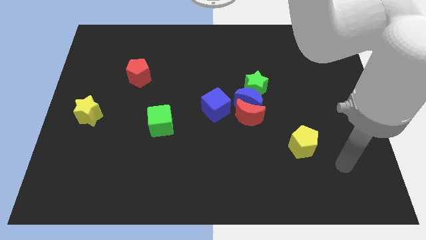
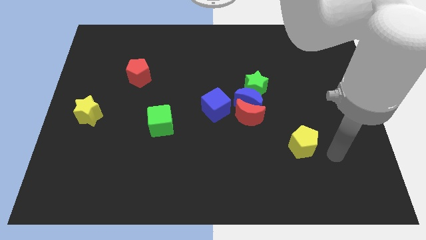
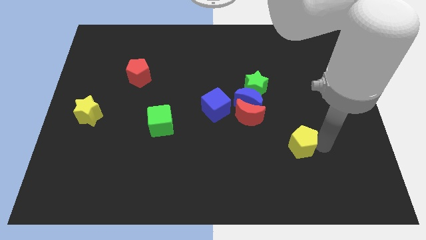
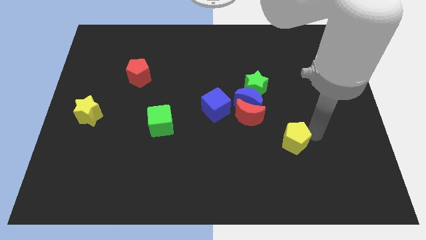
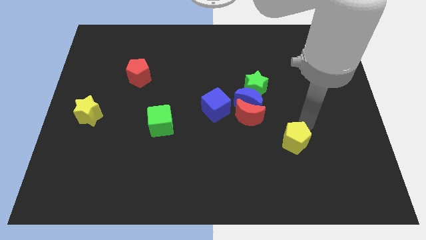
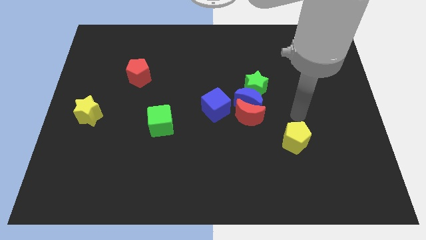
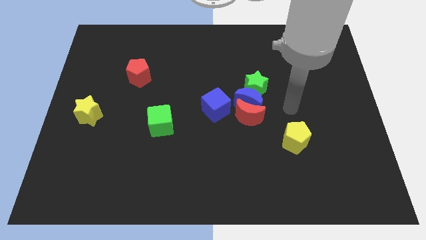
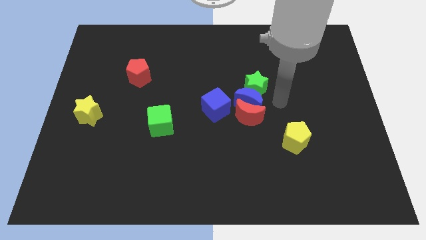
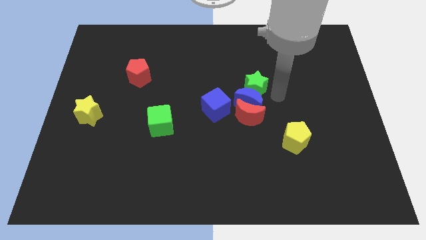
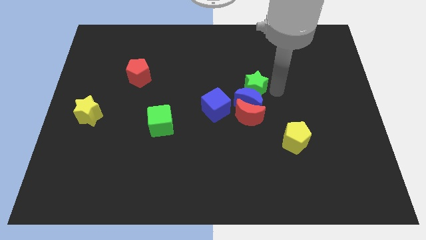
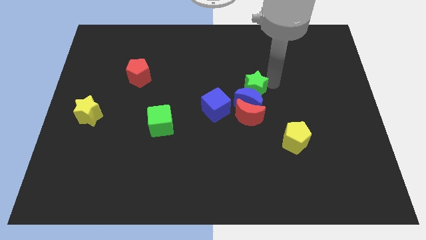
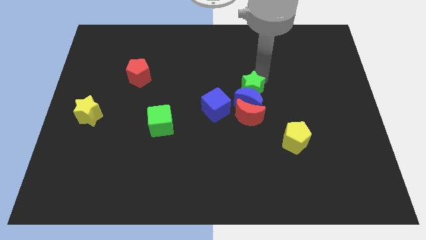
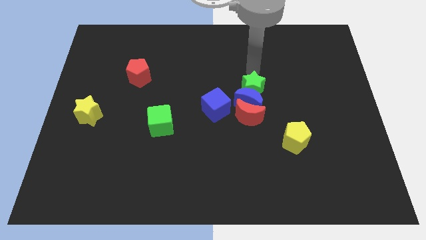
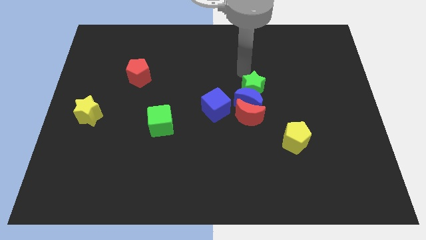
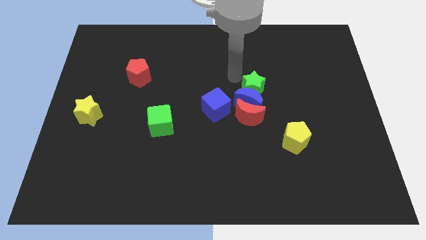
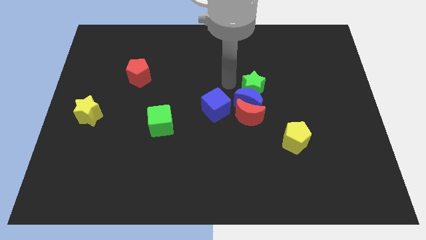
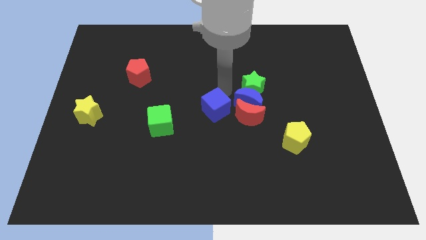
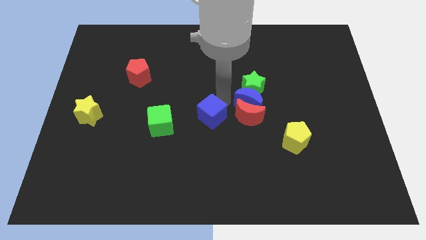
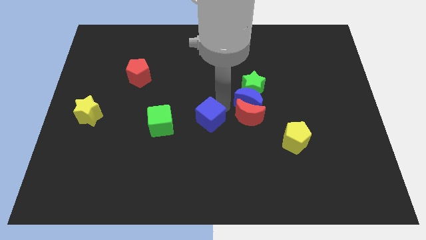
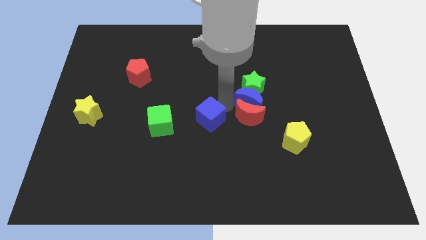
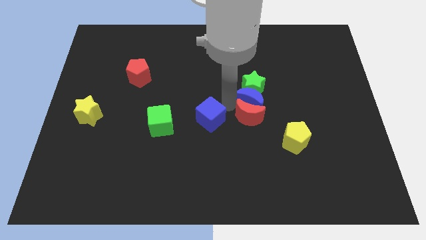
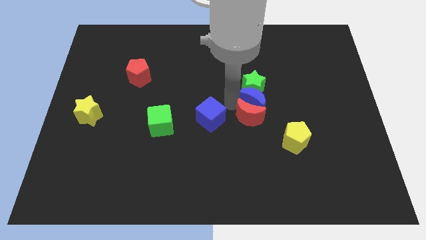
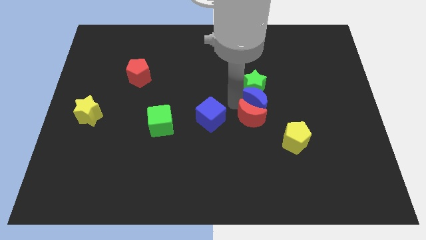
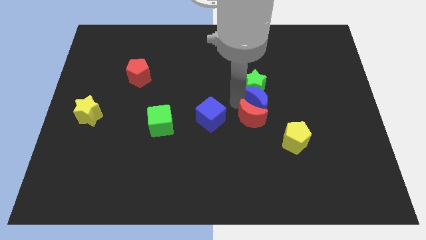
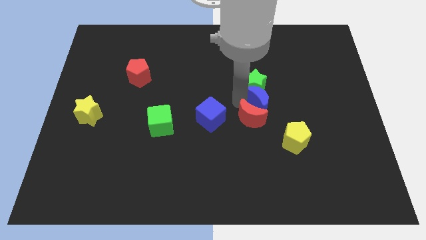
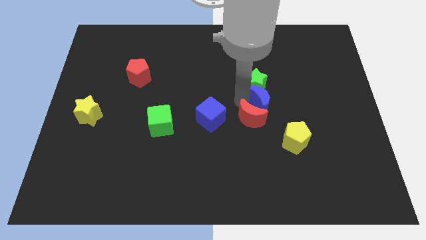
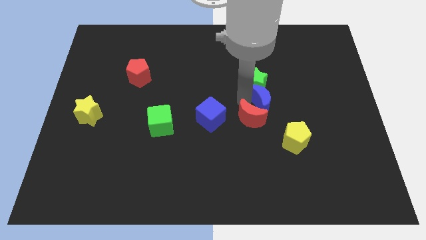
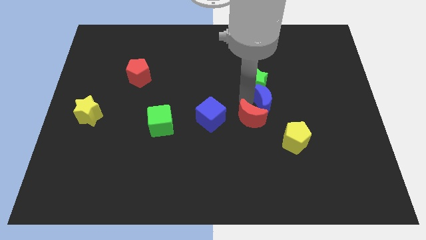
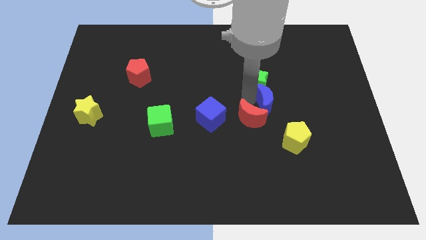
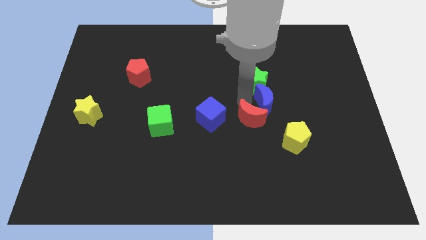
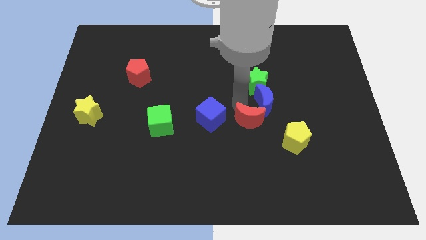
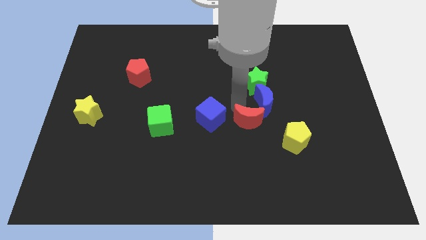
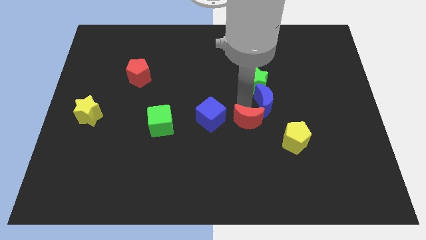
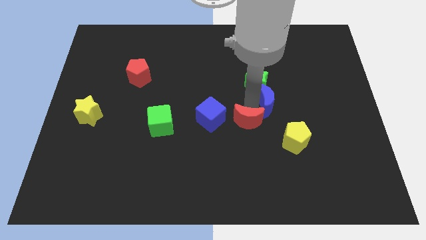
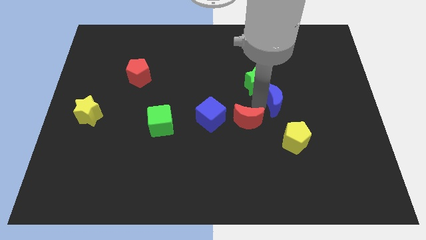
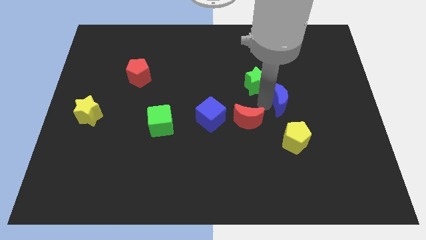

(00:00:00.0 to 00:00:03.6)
pull the blue moon apart from the group

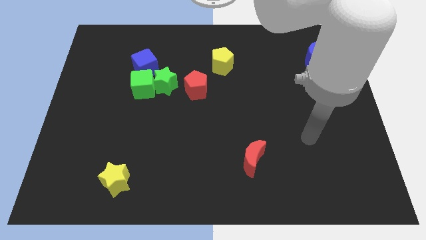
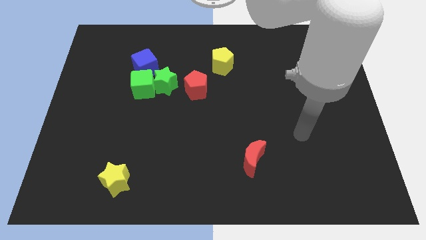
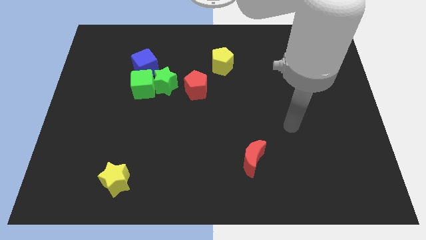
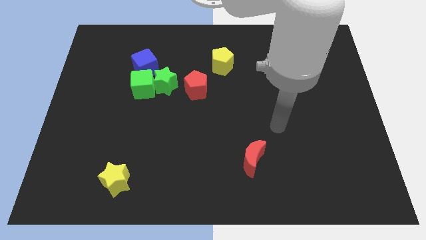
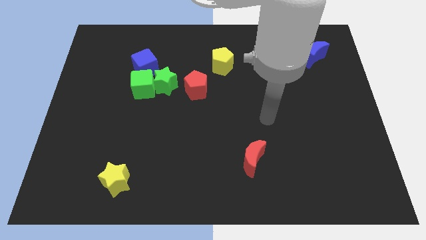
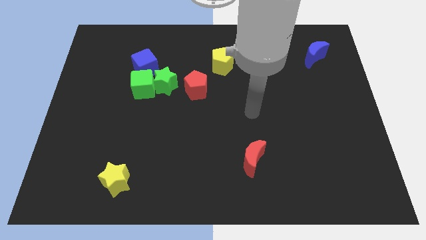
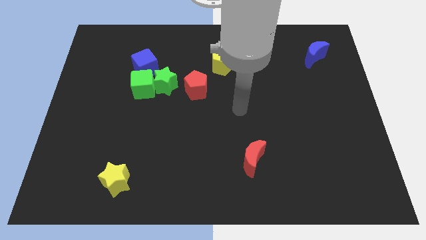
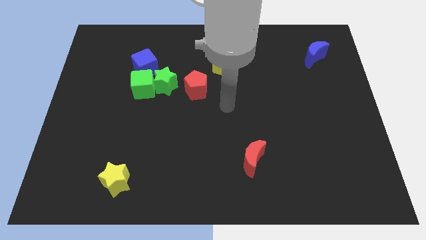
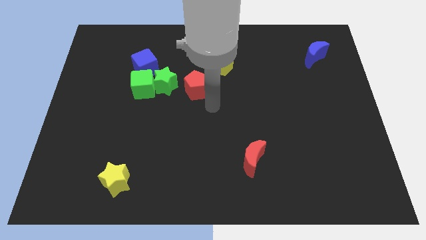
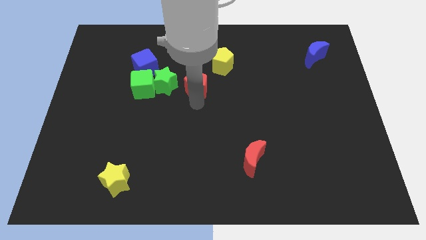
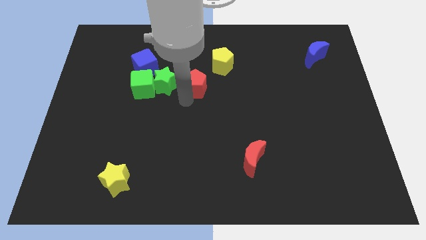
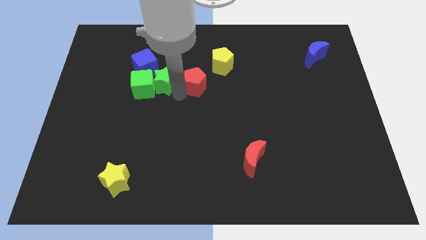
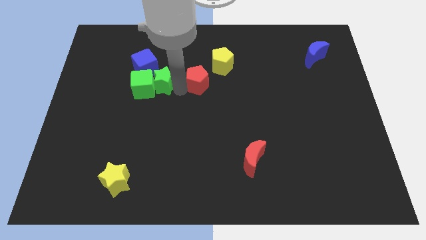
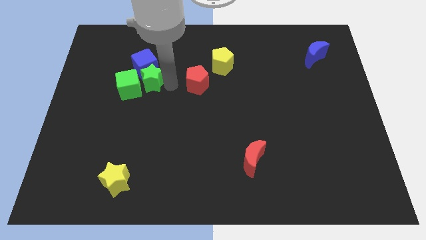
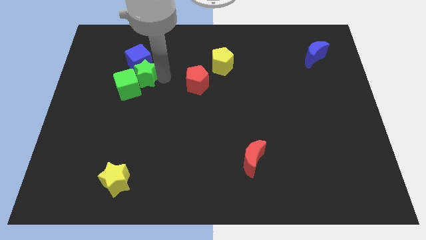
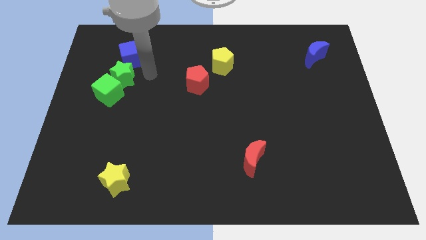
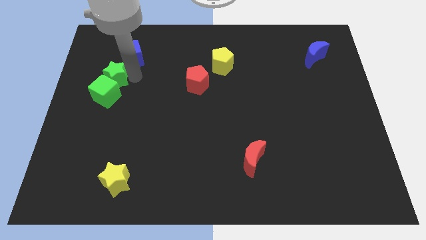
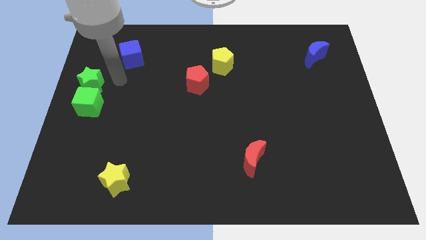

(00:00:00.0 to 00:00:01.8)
separate the green cube from the green star and blue cube

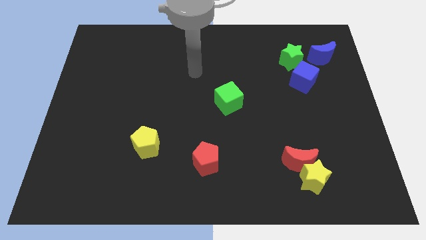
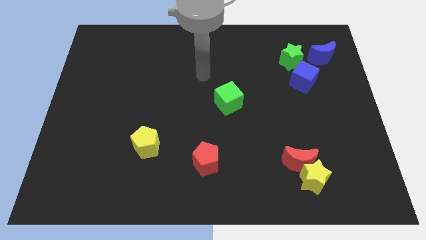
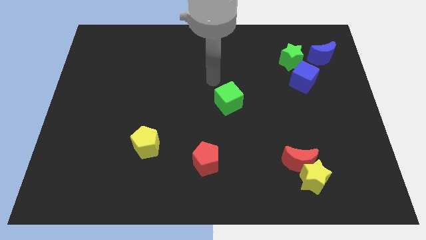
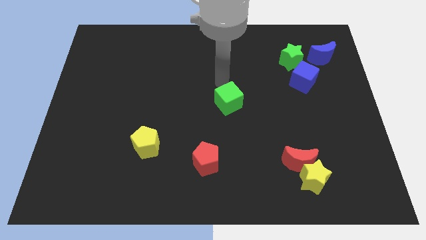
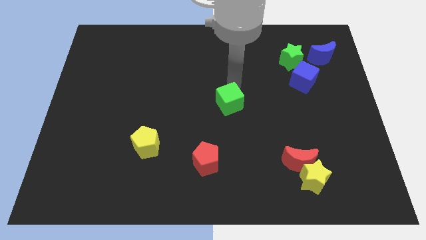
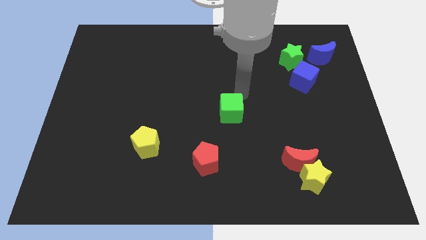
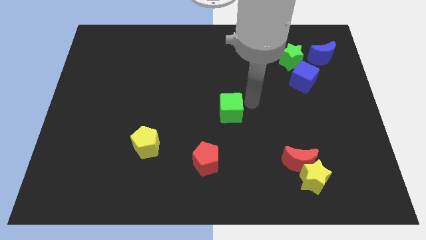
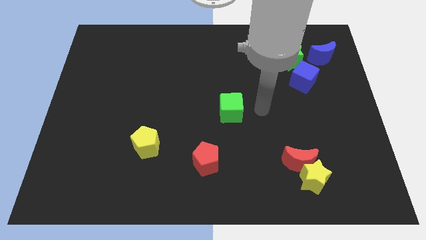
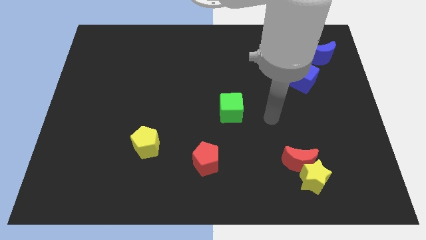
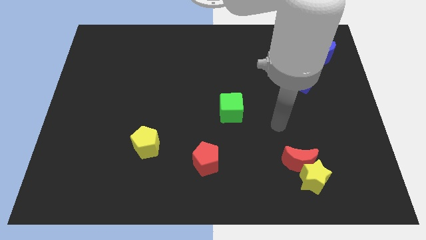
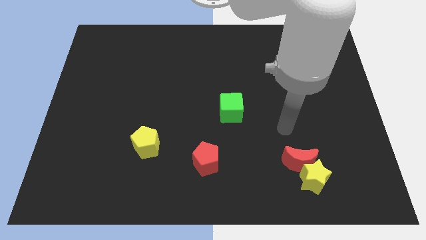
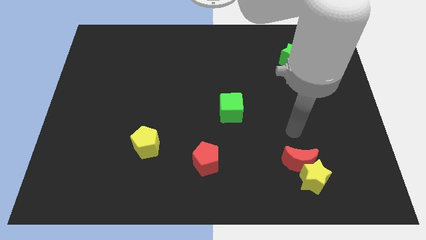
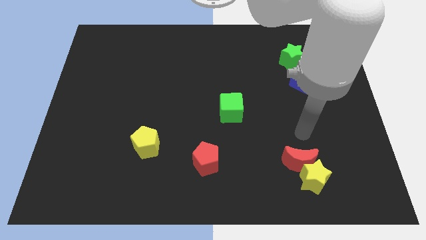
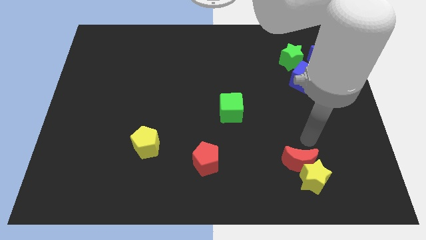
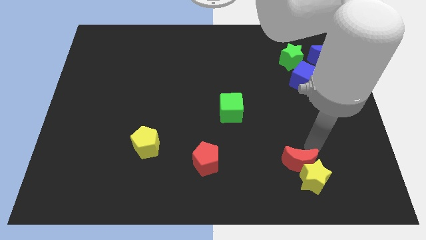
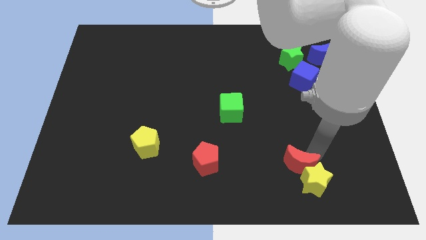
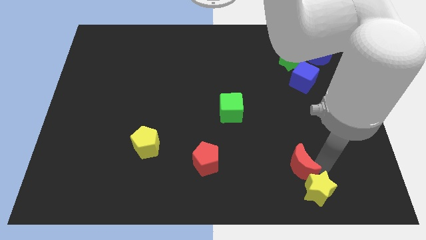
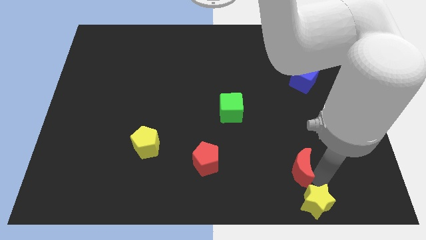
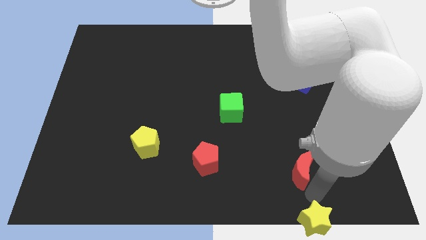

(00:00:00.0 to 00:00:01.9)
pull the red moon apart from the yellow star

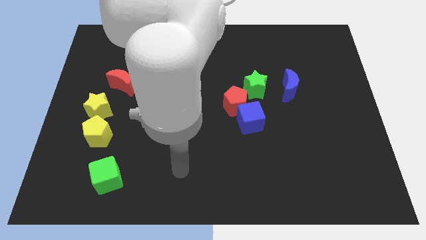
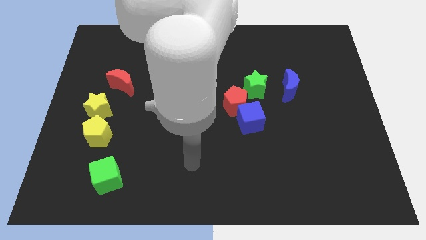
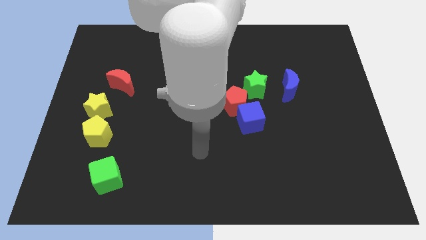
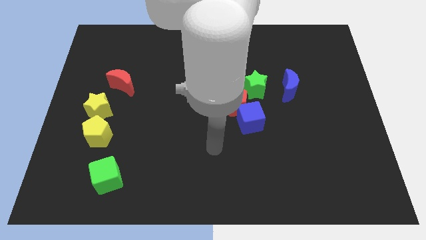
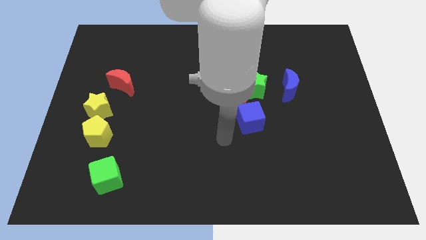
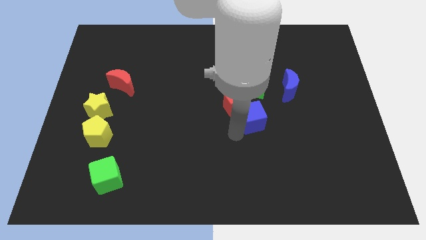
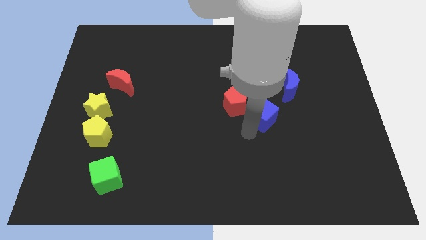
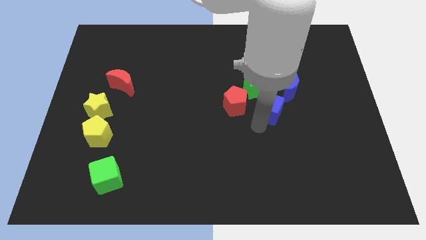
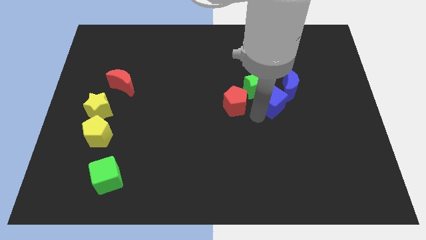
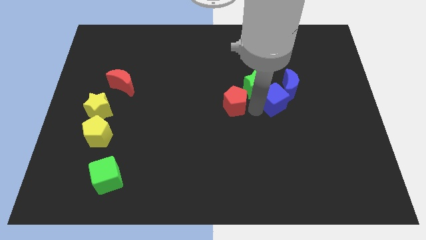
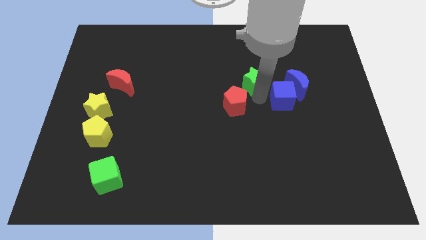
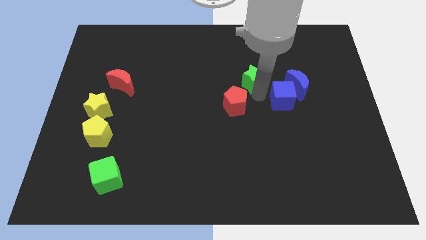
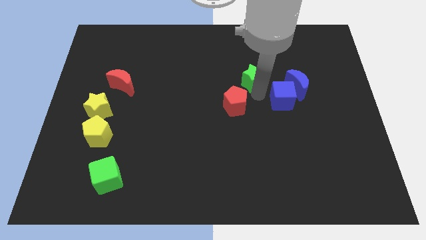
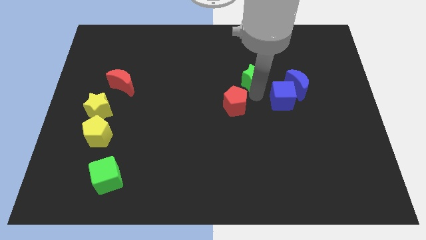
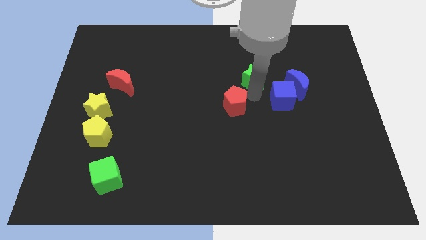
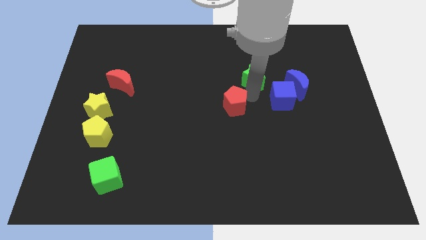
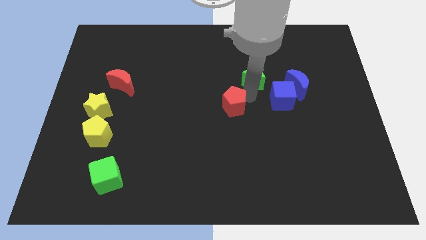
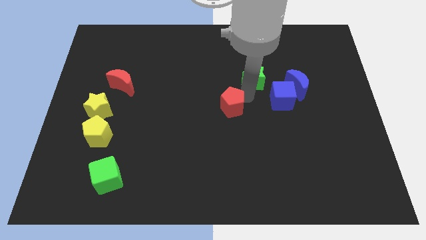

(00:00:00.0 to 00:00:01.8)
separate the red pentagon from the blue cube and green star

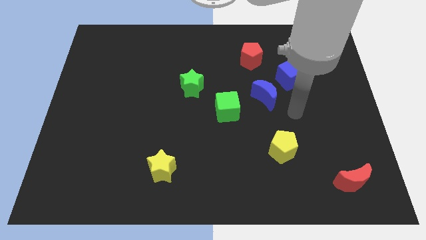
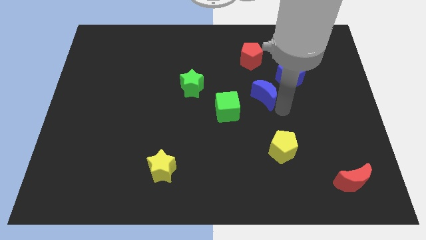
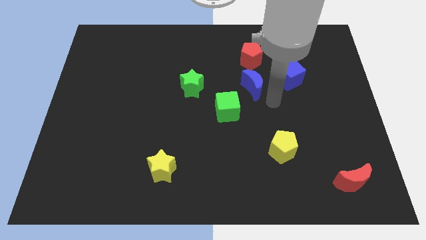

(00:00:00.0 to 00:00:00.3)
separate the blue cube from the blue moon
